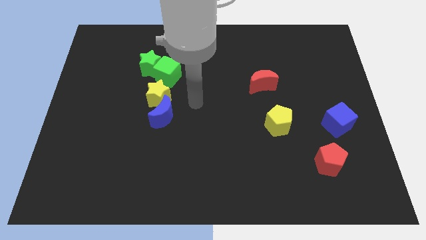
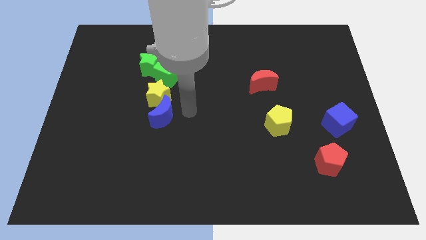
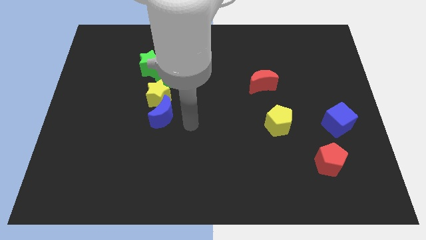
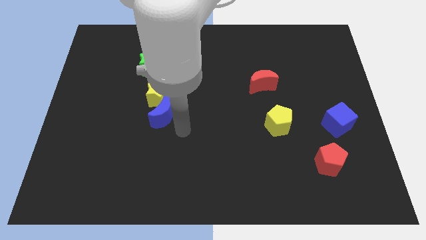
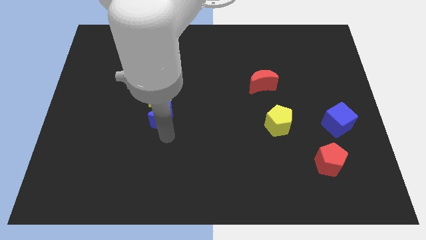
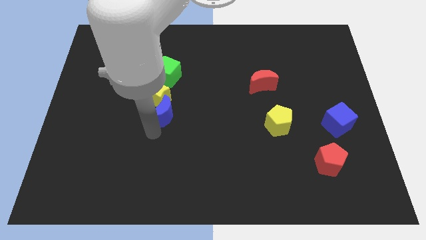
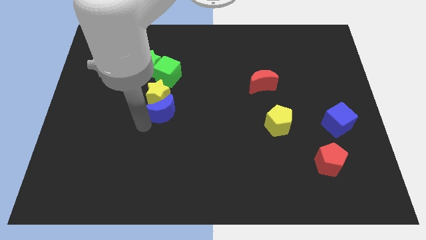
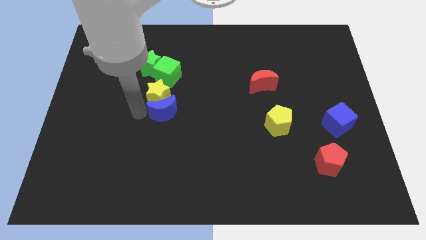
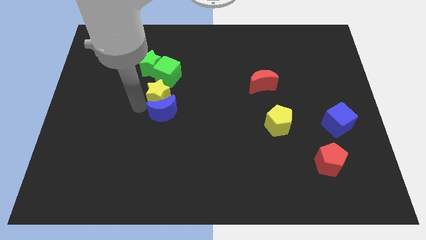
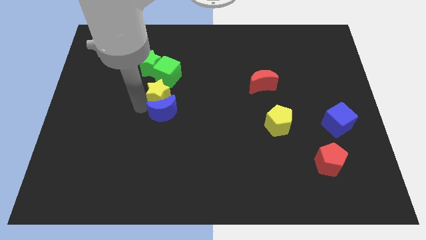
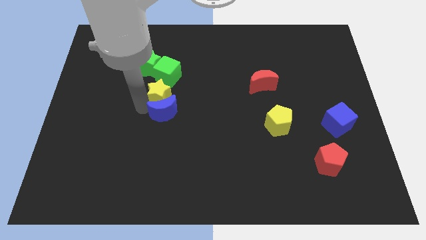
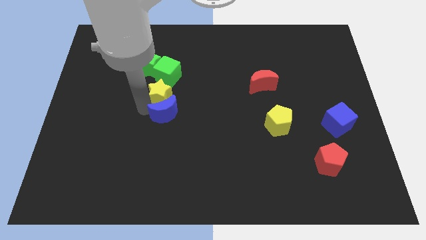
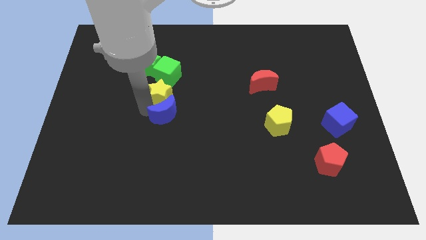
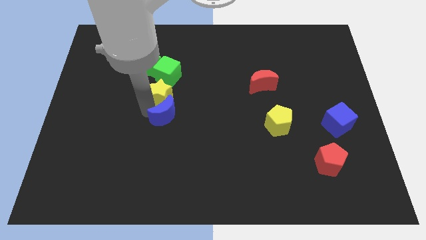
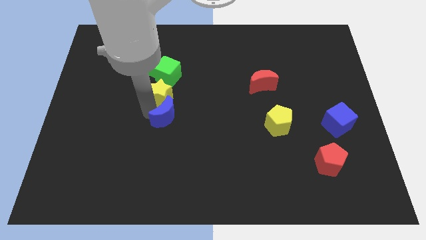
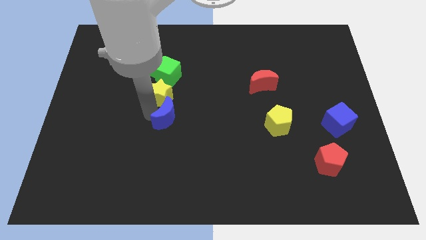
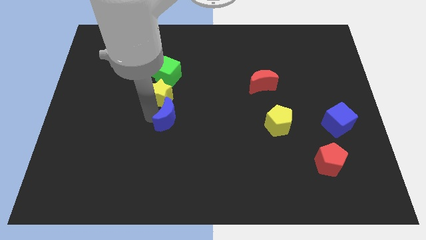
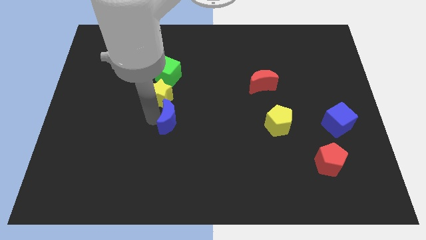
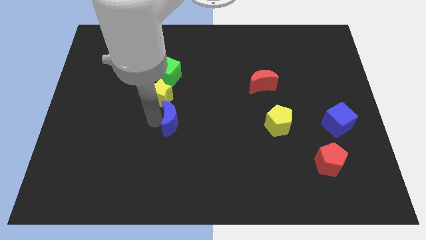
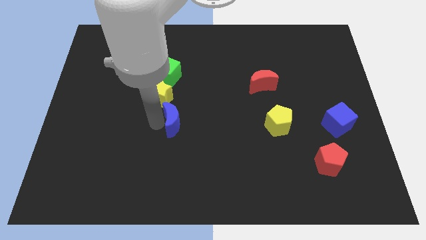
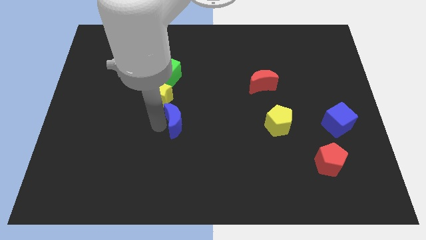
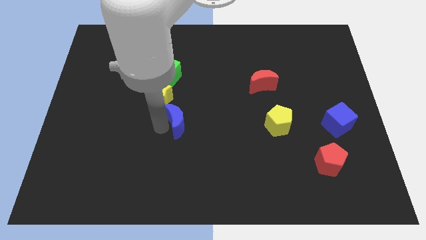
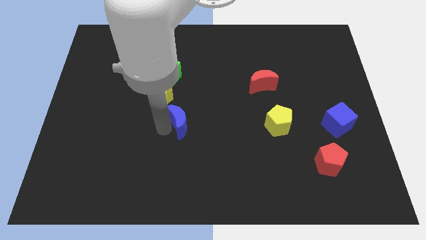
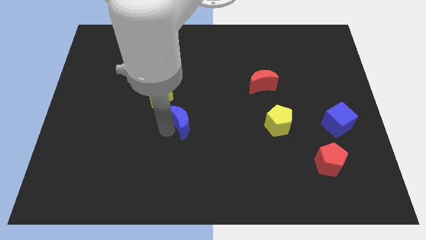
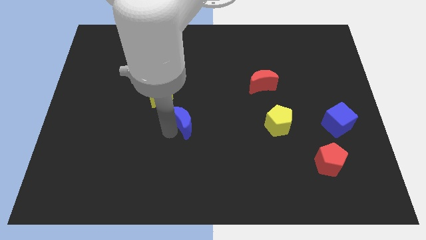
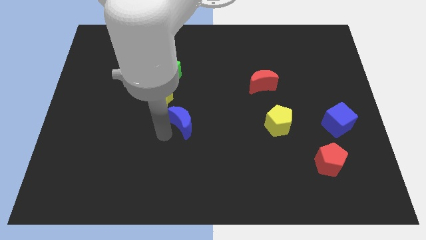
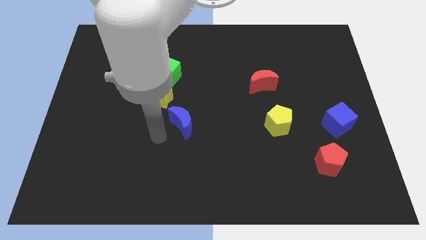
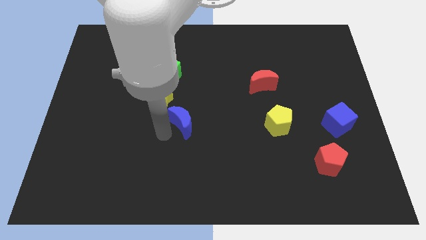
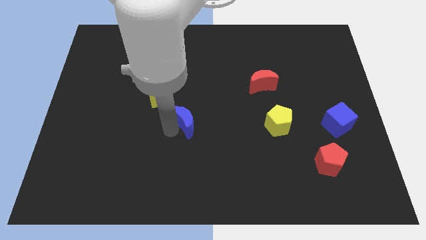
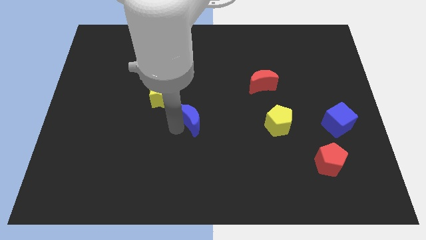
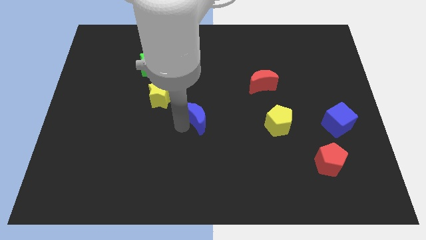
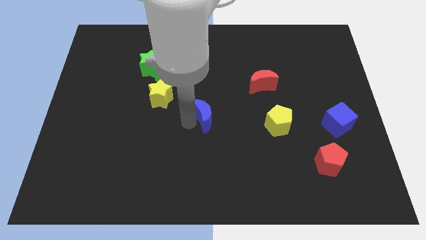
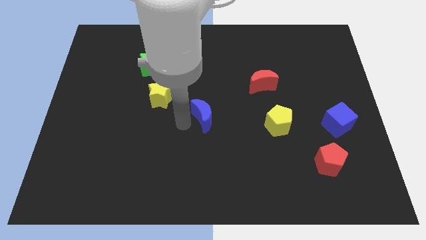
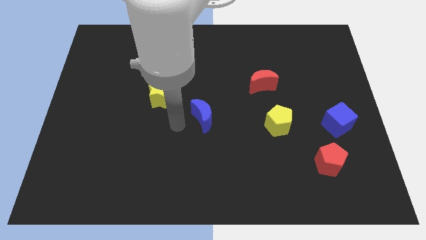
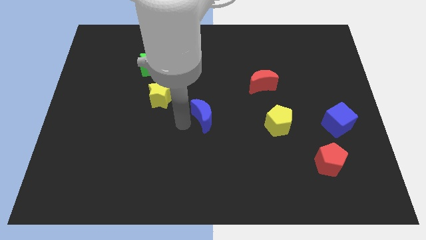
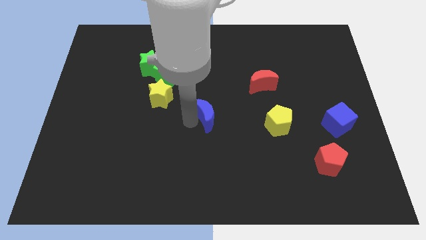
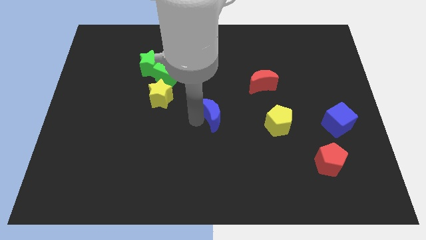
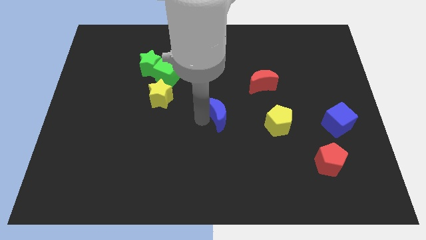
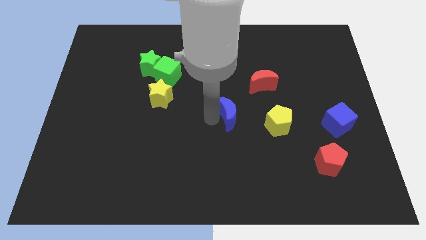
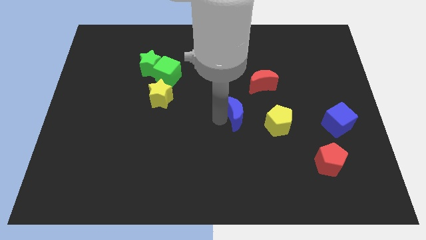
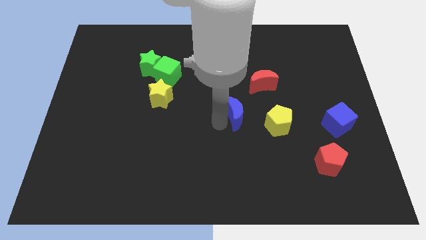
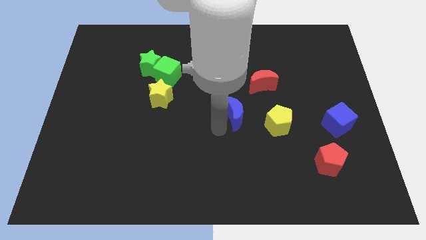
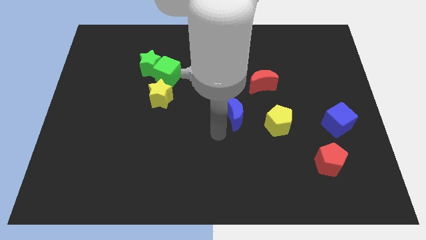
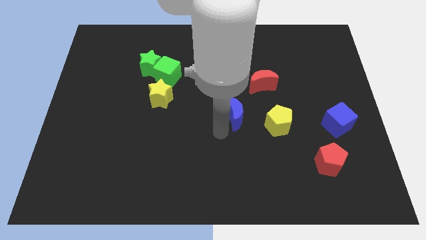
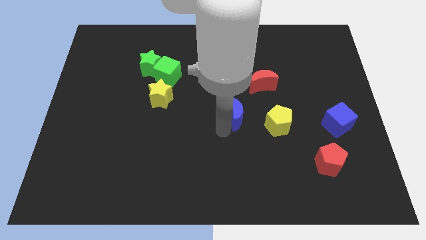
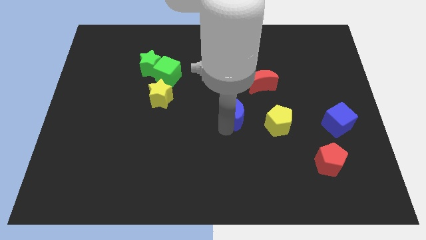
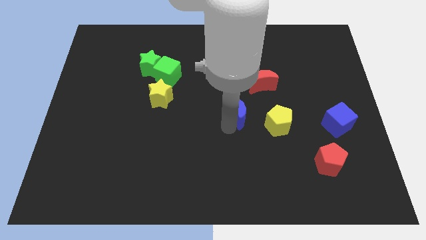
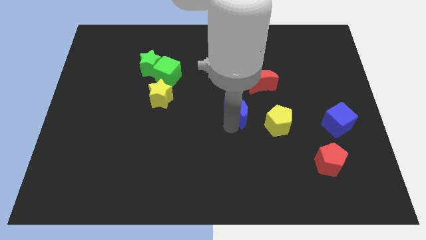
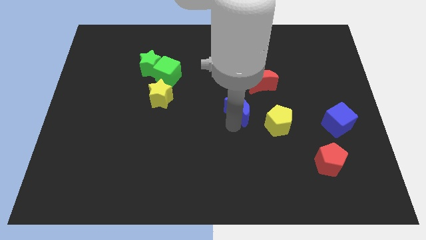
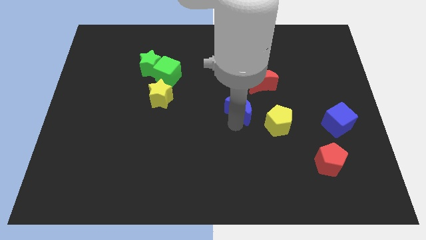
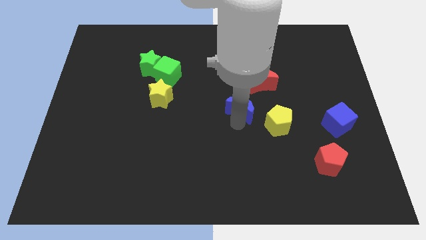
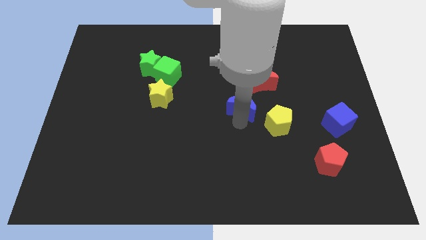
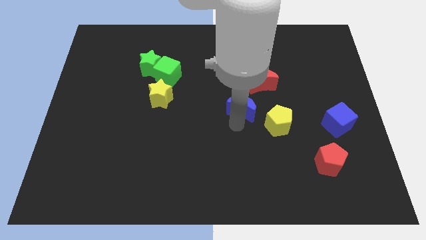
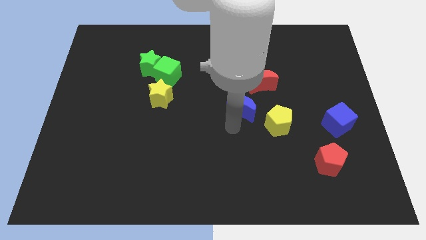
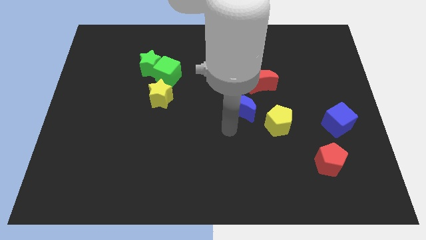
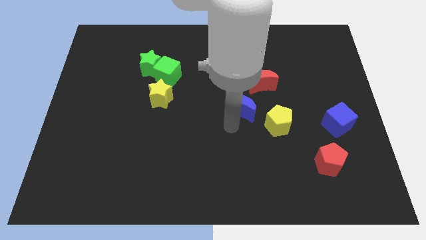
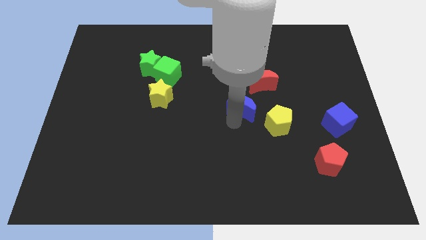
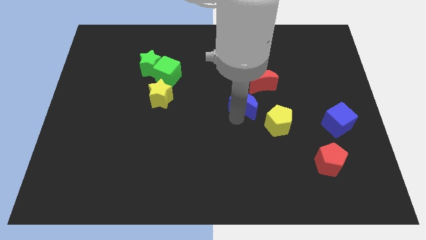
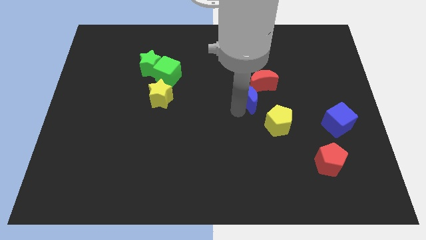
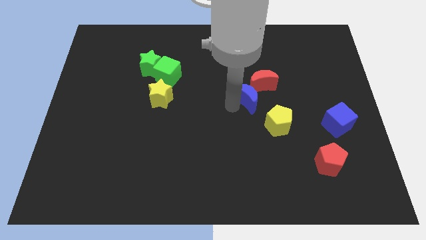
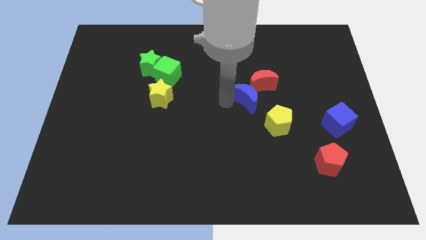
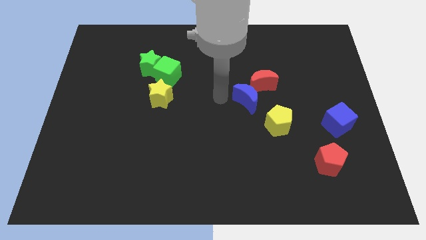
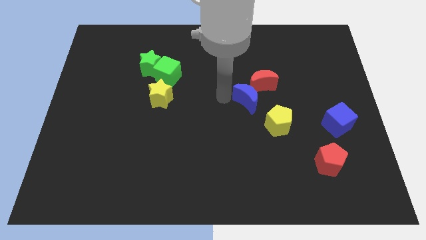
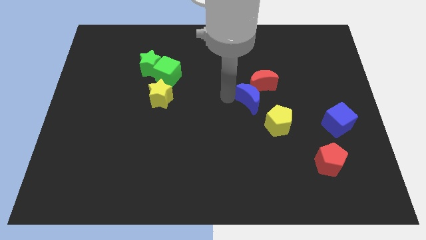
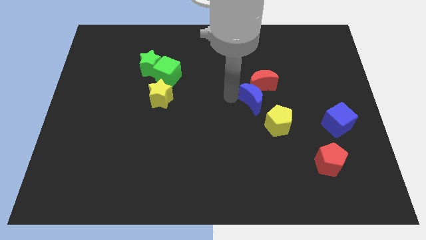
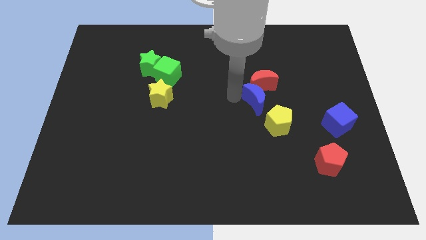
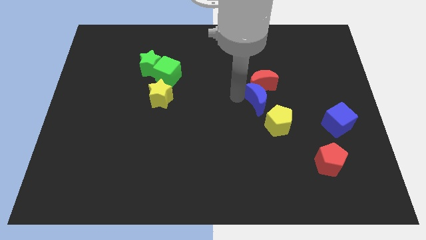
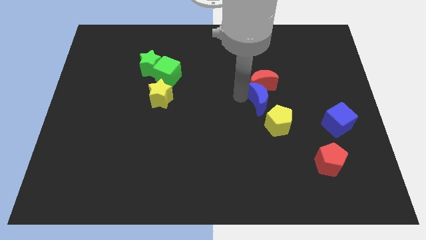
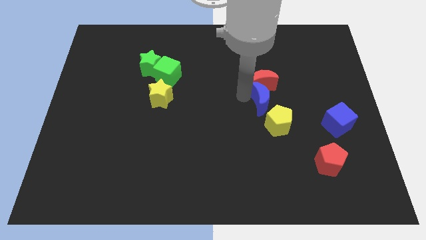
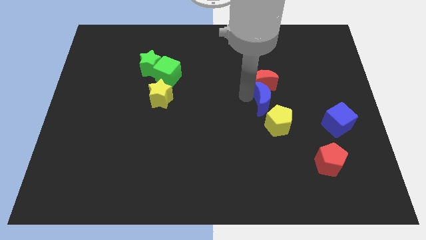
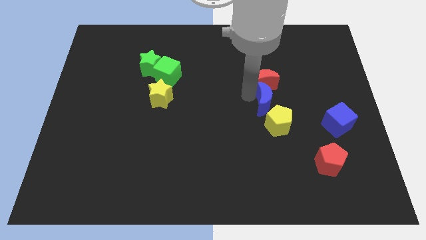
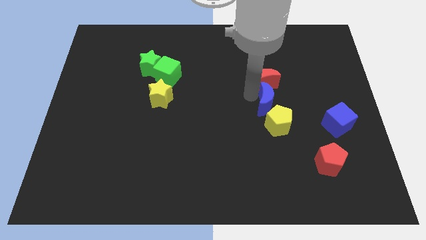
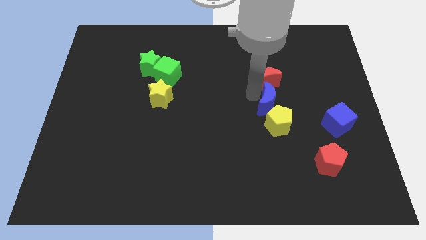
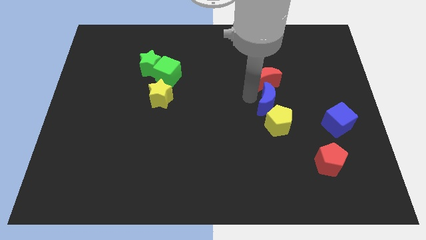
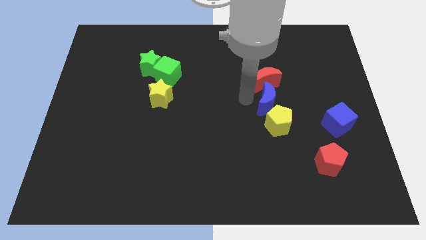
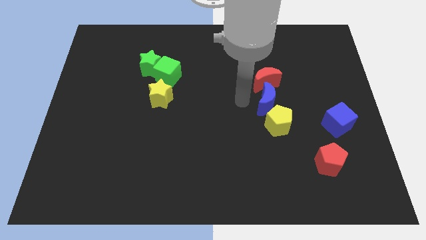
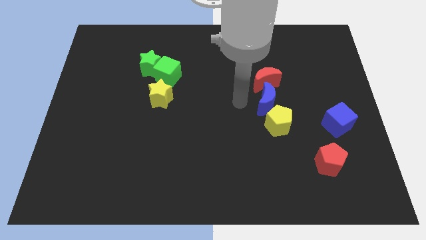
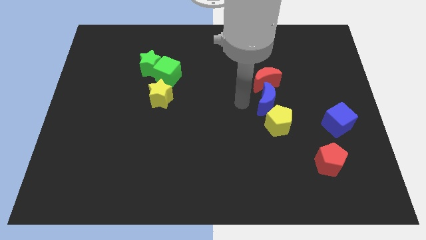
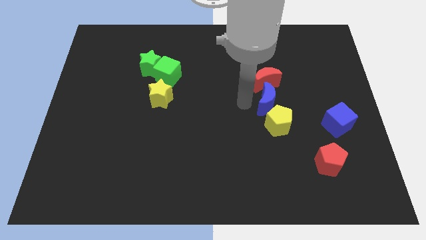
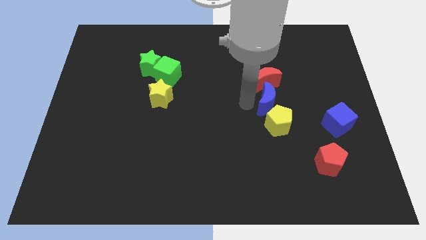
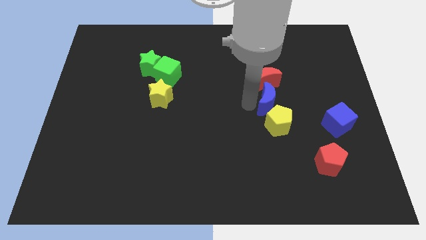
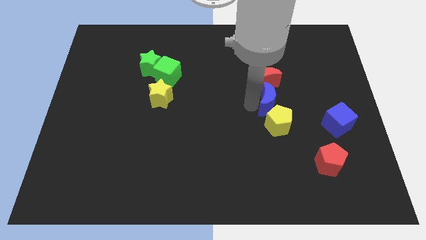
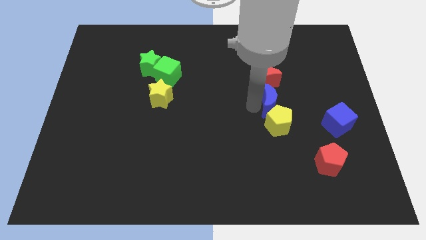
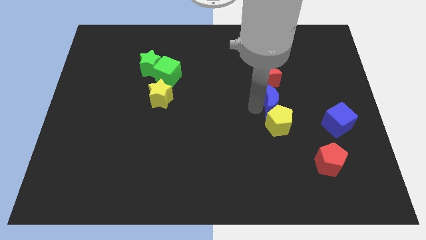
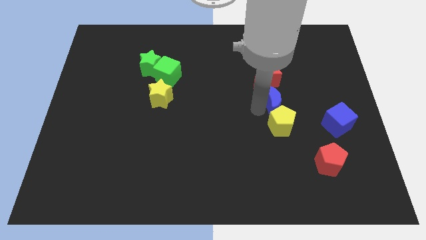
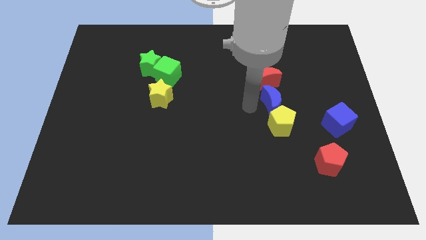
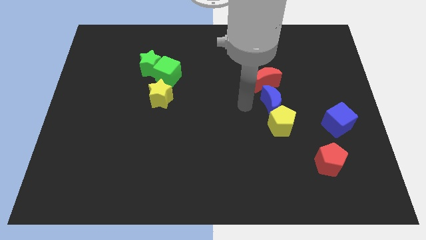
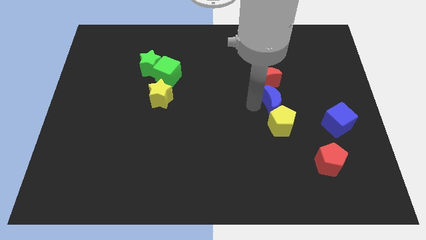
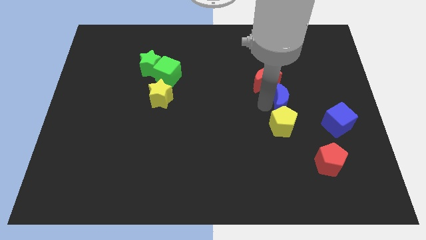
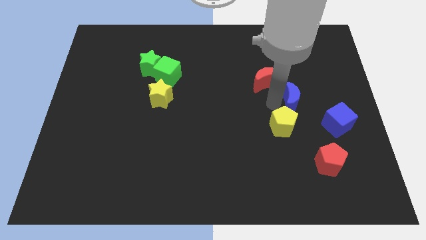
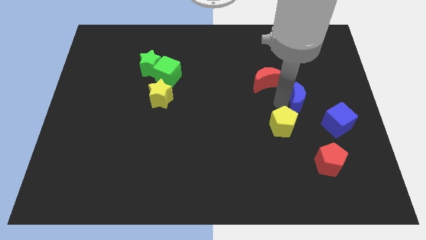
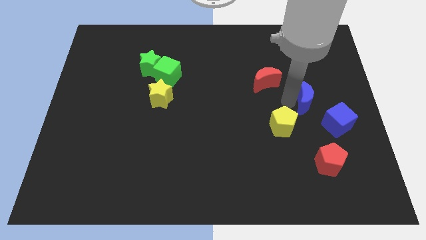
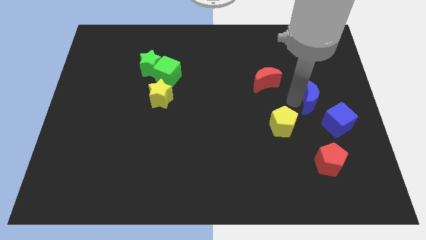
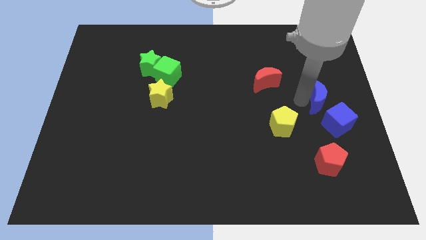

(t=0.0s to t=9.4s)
move the blue moon to the center right
